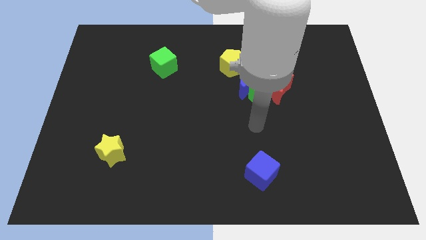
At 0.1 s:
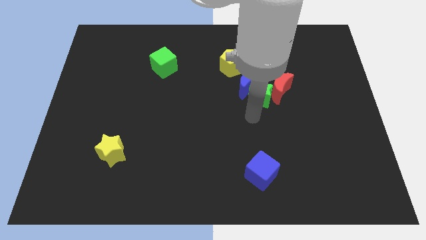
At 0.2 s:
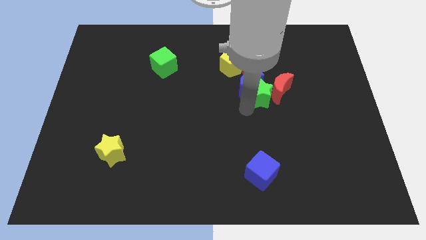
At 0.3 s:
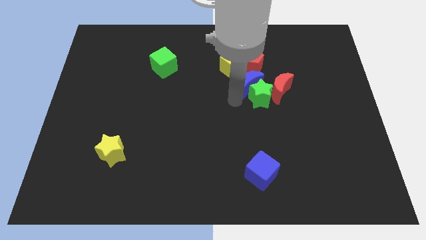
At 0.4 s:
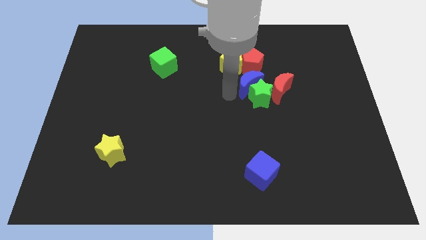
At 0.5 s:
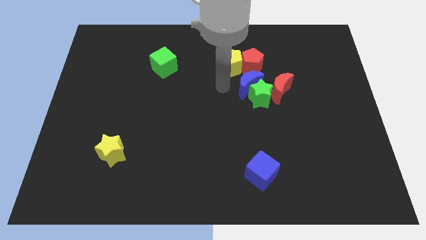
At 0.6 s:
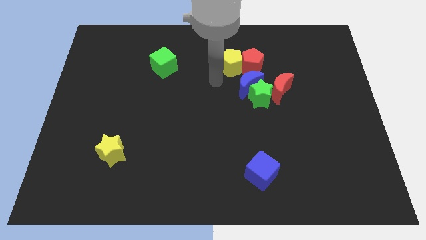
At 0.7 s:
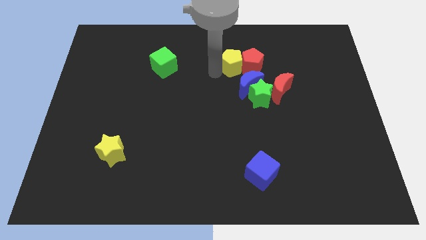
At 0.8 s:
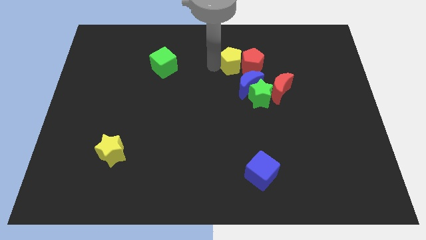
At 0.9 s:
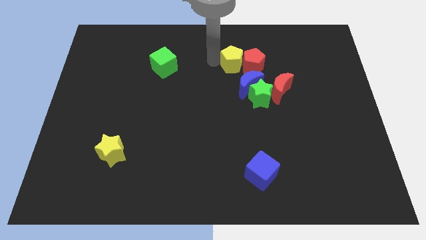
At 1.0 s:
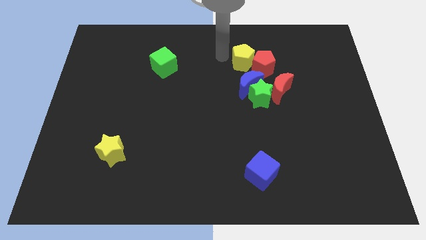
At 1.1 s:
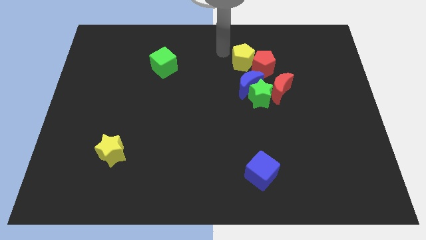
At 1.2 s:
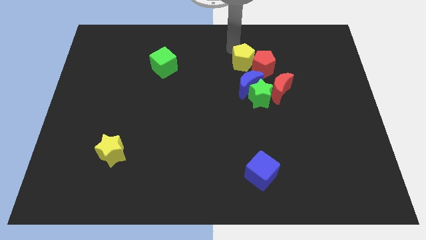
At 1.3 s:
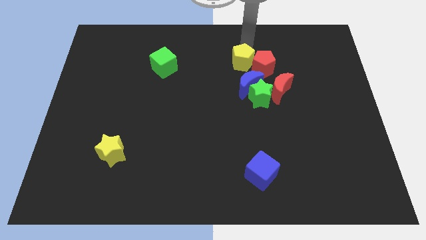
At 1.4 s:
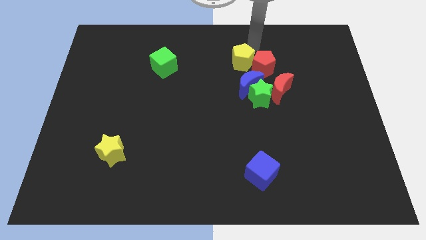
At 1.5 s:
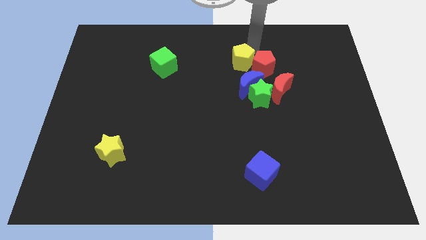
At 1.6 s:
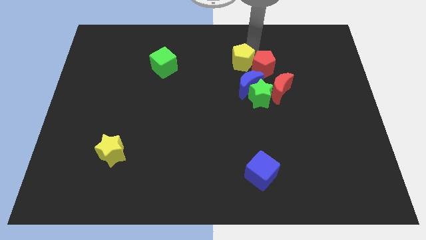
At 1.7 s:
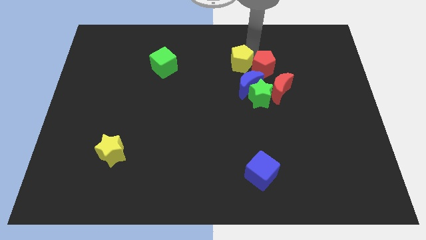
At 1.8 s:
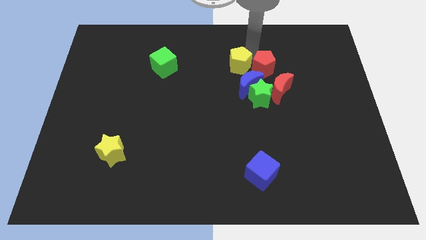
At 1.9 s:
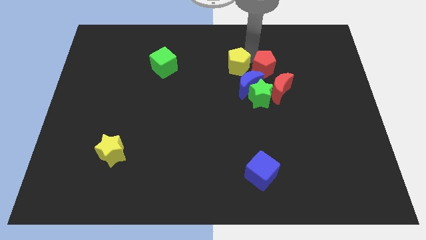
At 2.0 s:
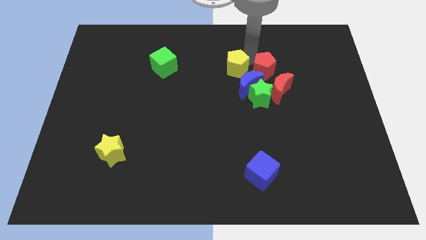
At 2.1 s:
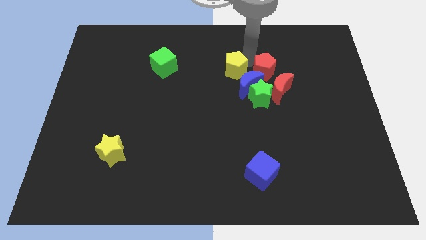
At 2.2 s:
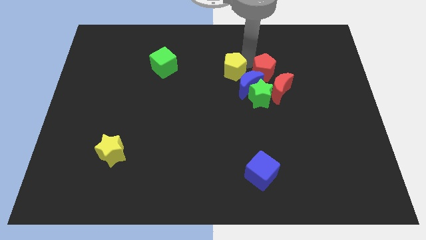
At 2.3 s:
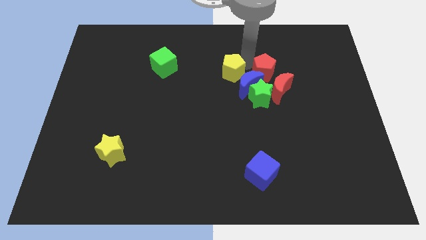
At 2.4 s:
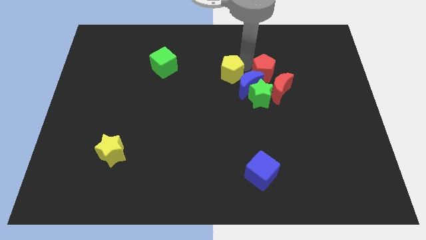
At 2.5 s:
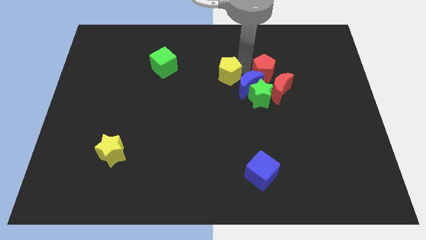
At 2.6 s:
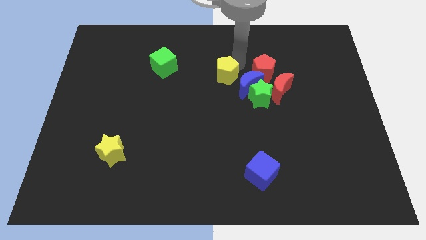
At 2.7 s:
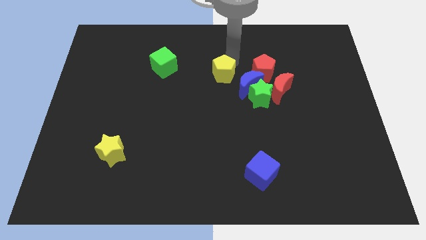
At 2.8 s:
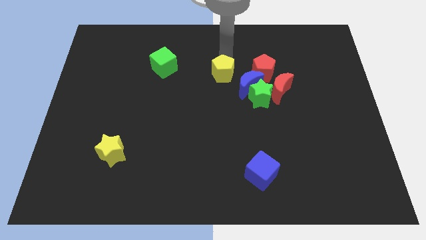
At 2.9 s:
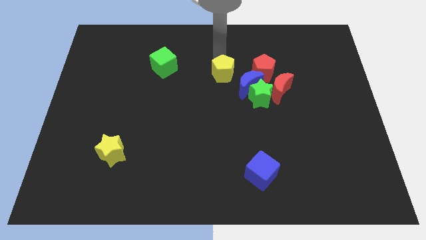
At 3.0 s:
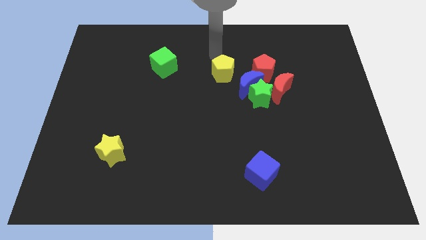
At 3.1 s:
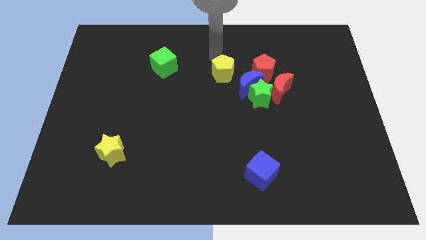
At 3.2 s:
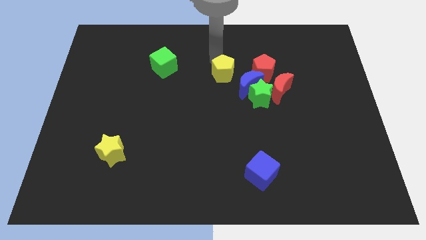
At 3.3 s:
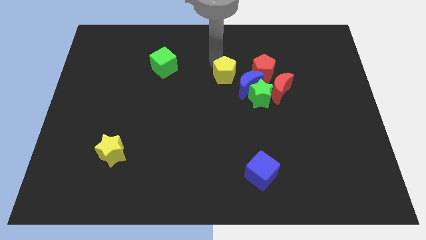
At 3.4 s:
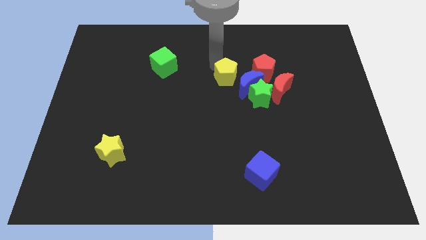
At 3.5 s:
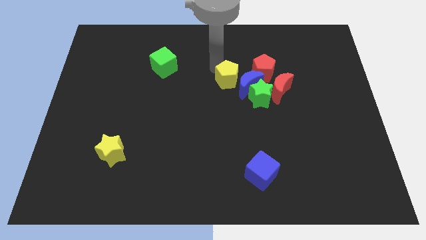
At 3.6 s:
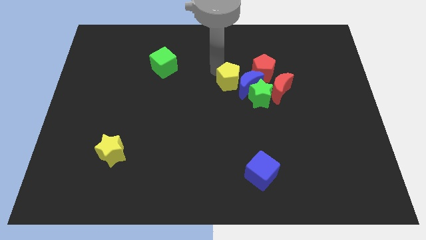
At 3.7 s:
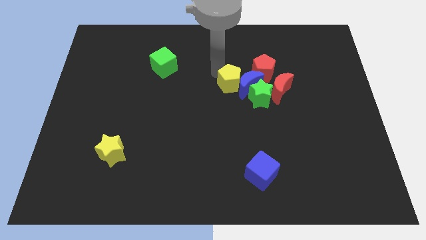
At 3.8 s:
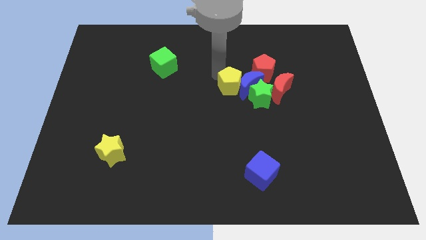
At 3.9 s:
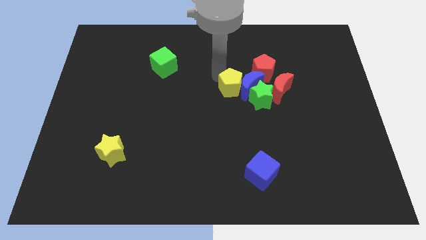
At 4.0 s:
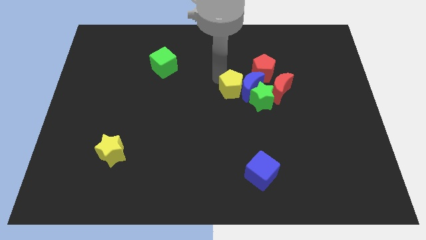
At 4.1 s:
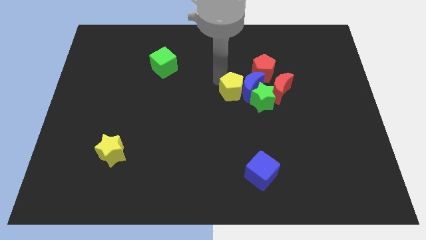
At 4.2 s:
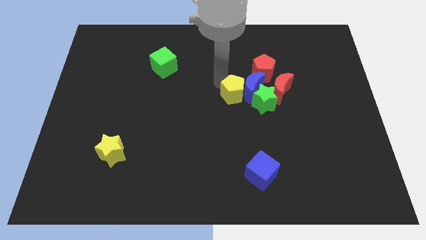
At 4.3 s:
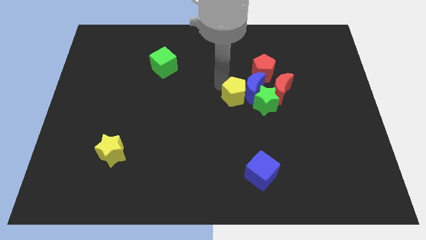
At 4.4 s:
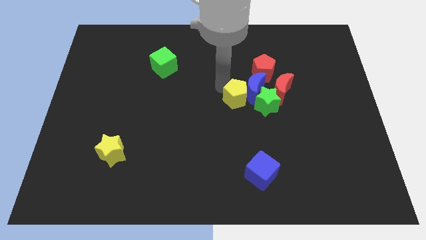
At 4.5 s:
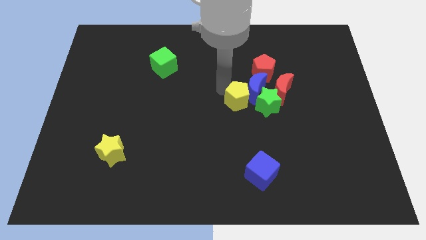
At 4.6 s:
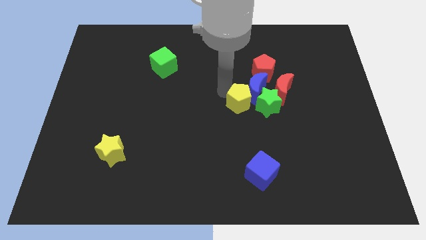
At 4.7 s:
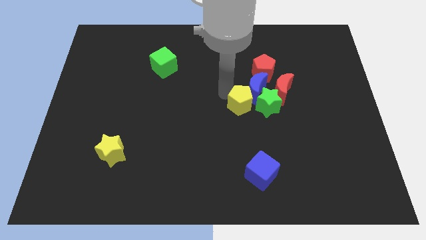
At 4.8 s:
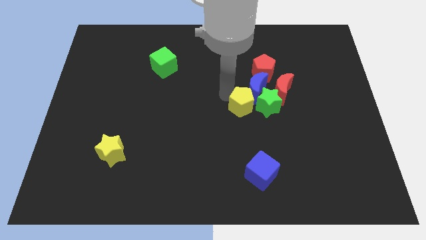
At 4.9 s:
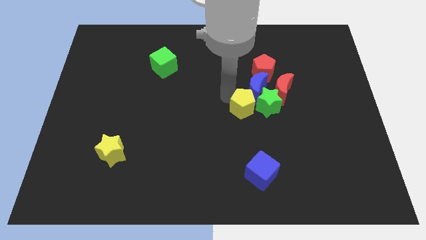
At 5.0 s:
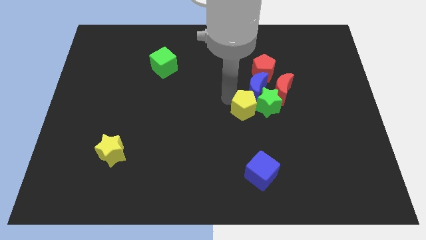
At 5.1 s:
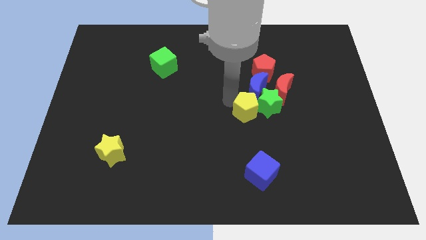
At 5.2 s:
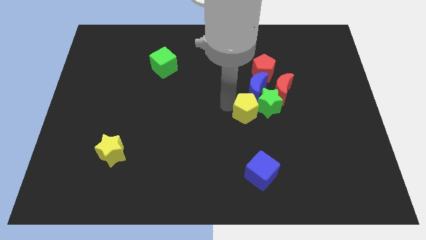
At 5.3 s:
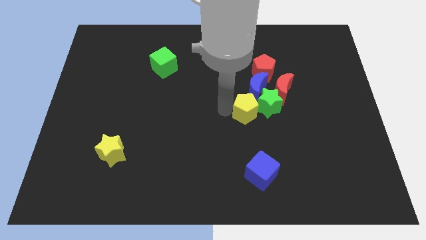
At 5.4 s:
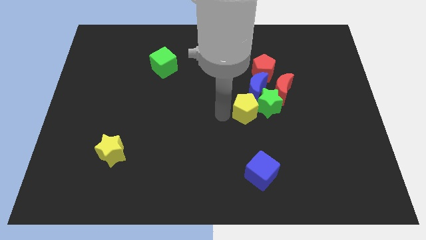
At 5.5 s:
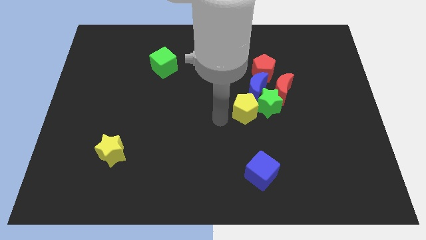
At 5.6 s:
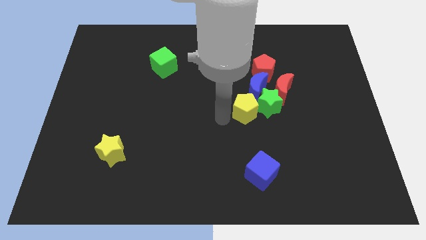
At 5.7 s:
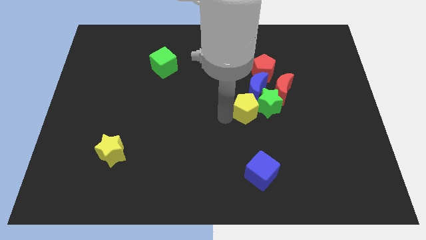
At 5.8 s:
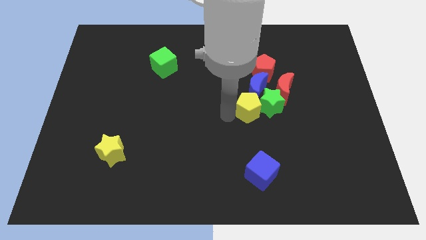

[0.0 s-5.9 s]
put the yellow pentagon below the red pentagon

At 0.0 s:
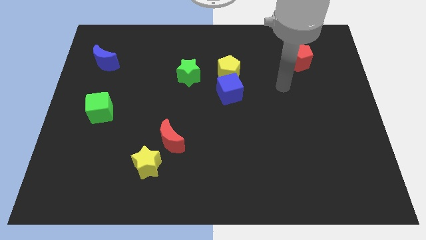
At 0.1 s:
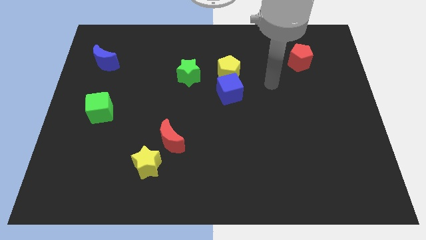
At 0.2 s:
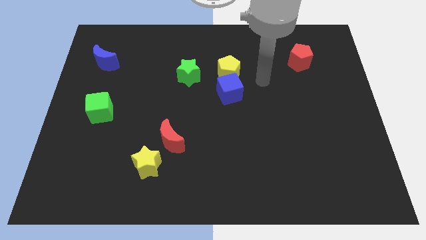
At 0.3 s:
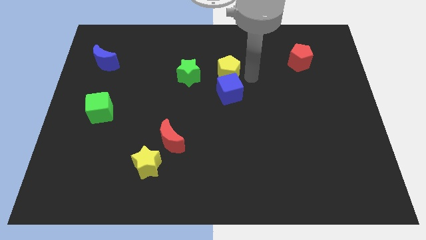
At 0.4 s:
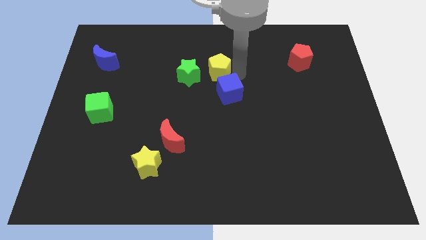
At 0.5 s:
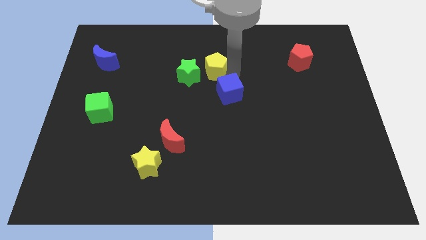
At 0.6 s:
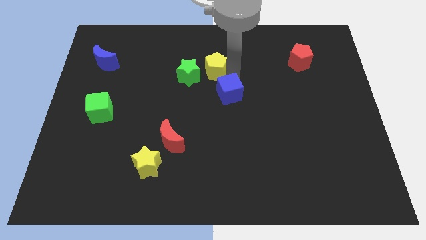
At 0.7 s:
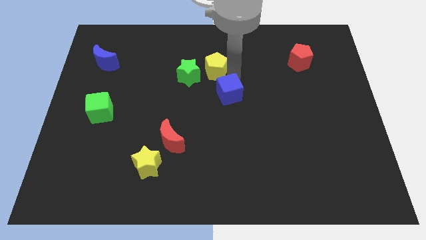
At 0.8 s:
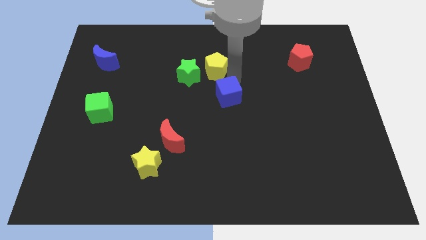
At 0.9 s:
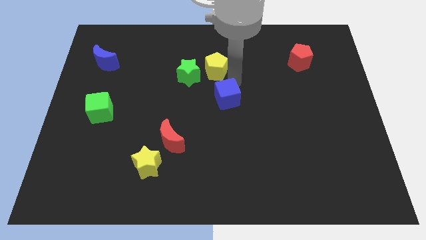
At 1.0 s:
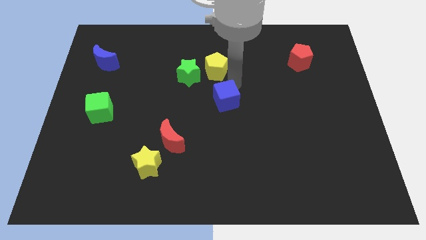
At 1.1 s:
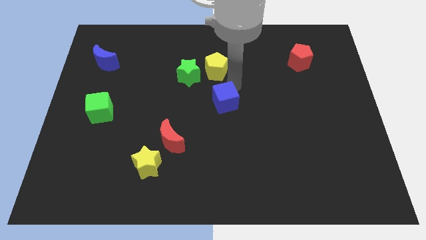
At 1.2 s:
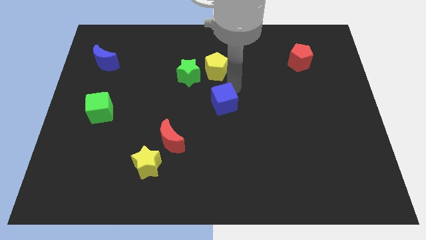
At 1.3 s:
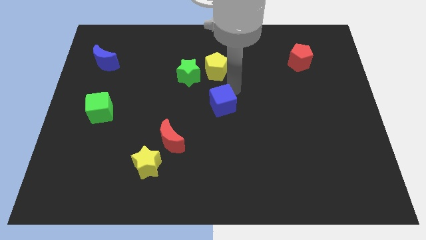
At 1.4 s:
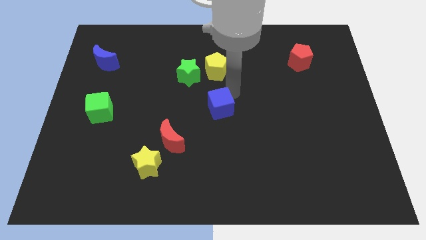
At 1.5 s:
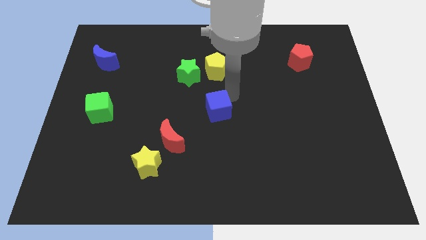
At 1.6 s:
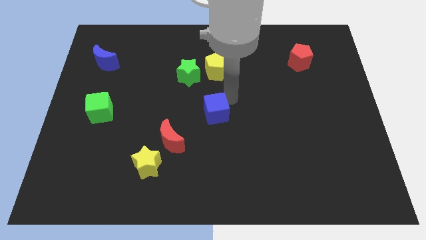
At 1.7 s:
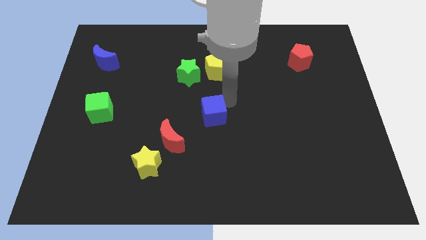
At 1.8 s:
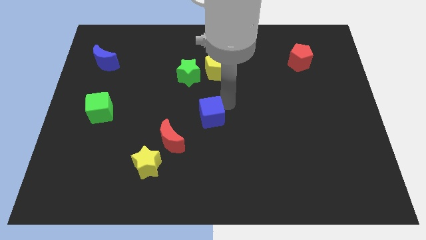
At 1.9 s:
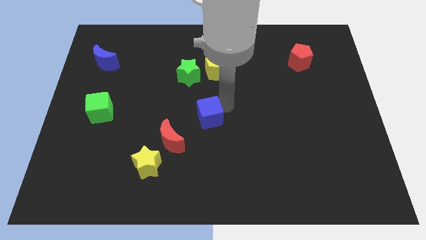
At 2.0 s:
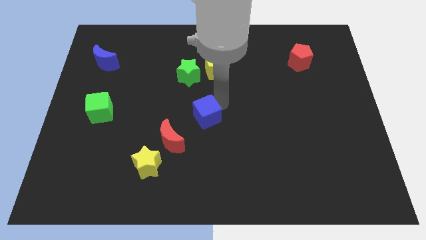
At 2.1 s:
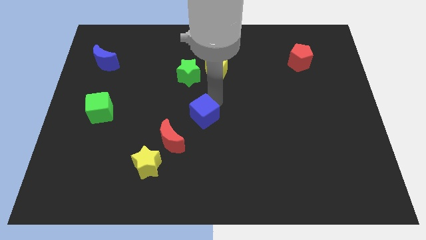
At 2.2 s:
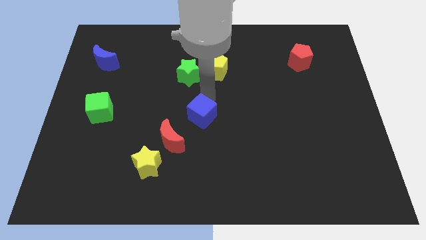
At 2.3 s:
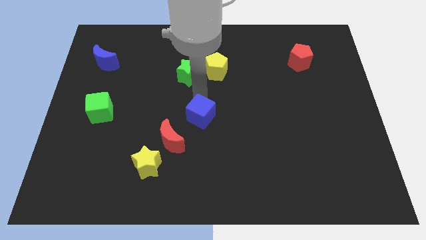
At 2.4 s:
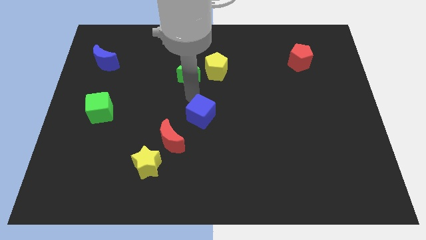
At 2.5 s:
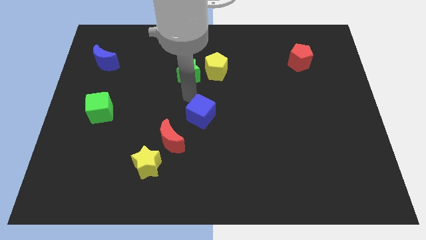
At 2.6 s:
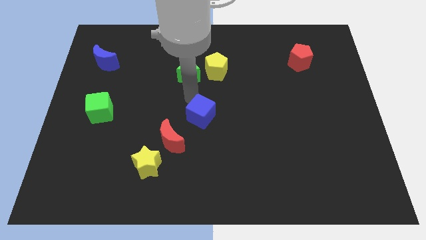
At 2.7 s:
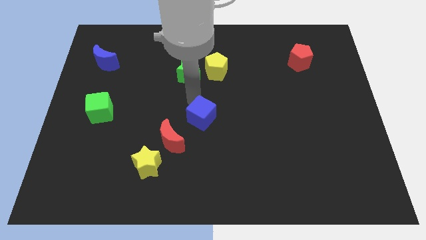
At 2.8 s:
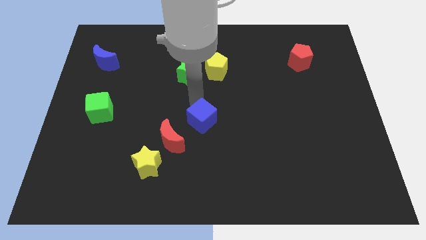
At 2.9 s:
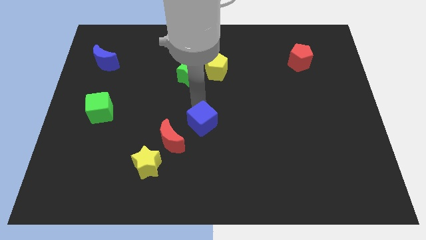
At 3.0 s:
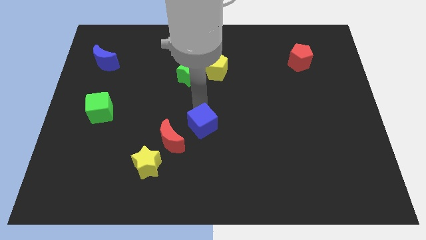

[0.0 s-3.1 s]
slide the blue cube right of the red moon
